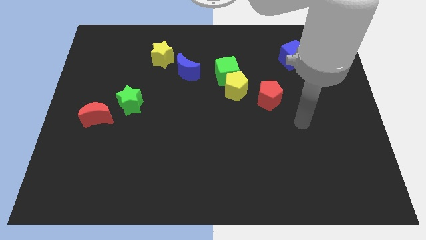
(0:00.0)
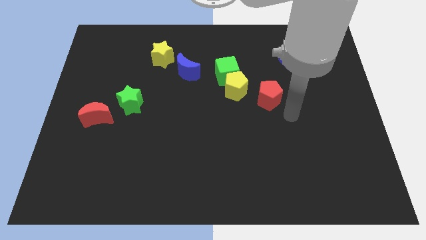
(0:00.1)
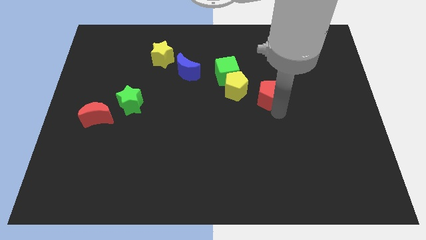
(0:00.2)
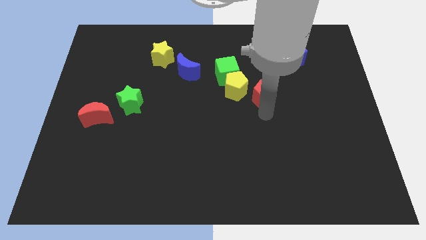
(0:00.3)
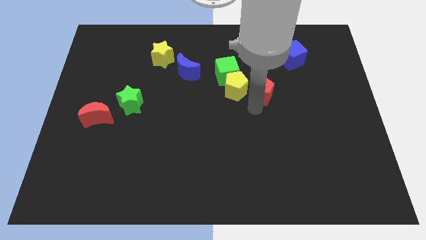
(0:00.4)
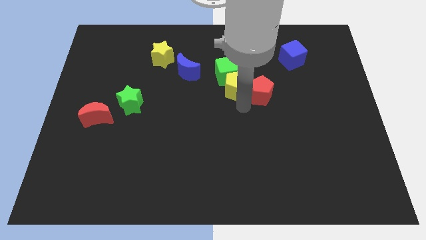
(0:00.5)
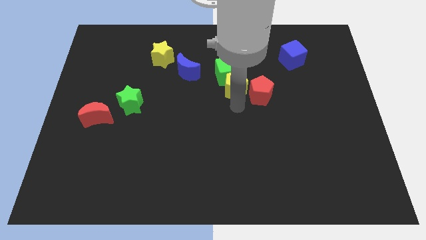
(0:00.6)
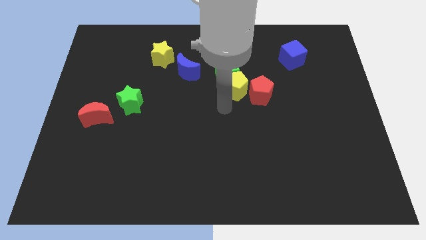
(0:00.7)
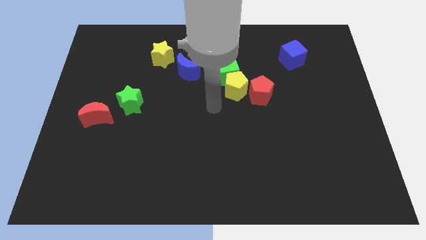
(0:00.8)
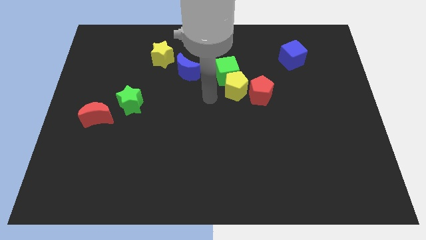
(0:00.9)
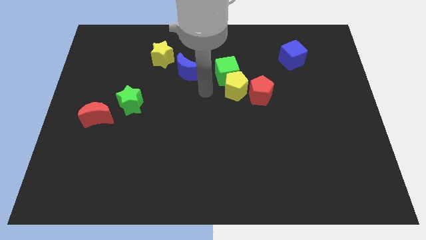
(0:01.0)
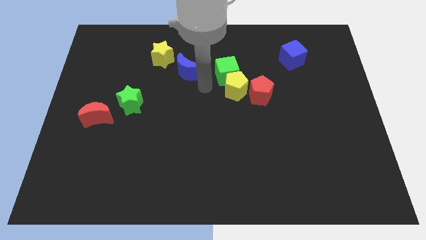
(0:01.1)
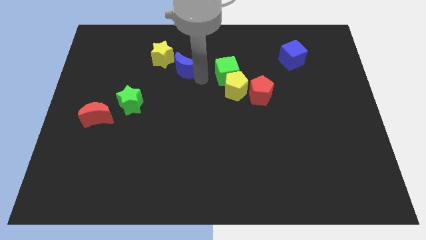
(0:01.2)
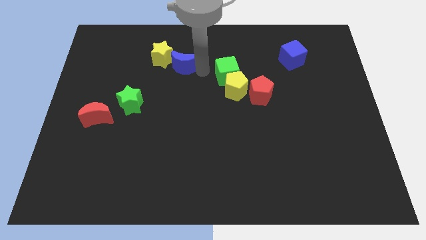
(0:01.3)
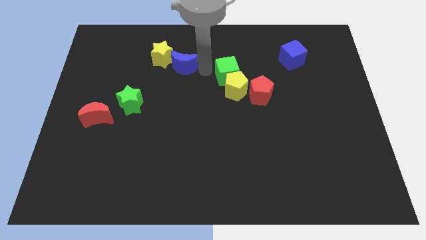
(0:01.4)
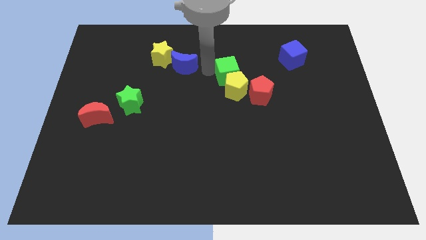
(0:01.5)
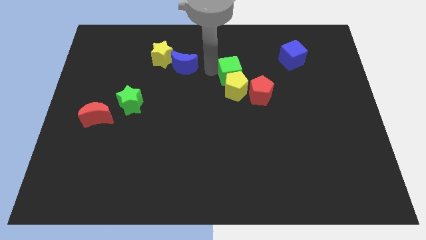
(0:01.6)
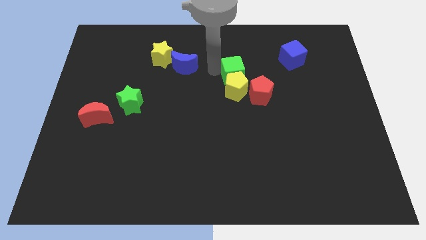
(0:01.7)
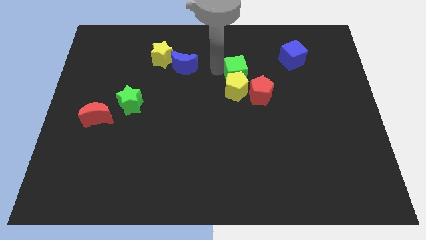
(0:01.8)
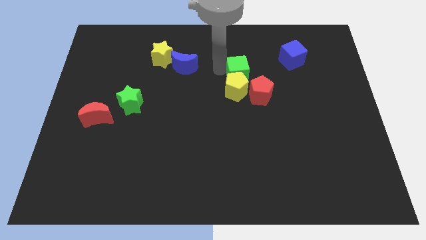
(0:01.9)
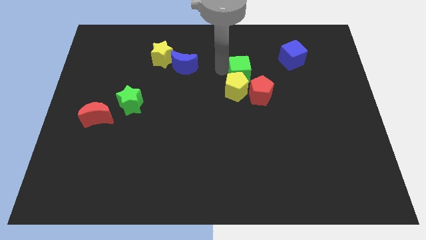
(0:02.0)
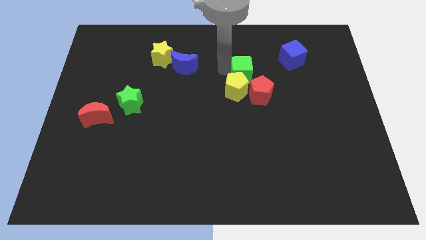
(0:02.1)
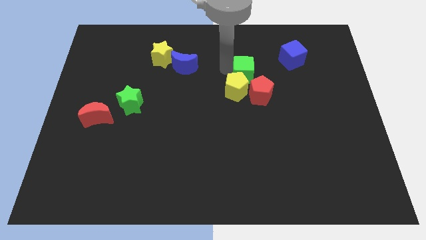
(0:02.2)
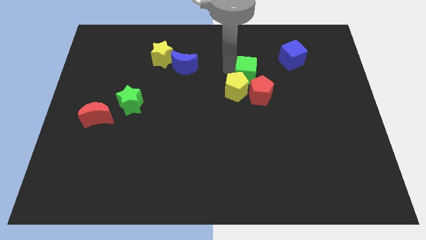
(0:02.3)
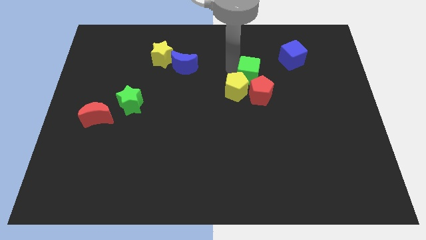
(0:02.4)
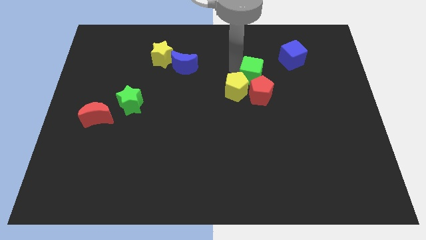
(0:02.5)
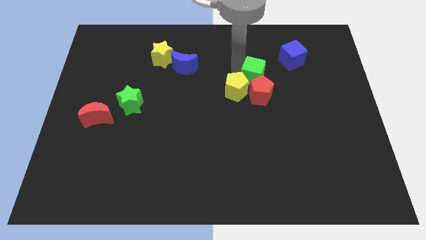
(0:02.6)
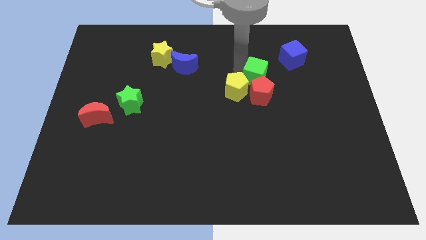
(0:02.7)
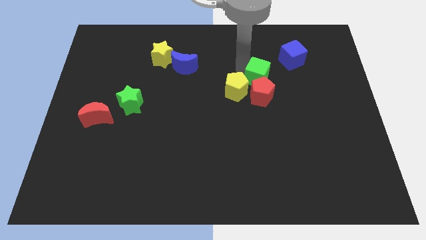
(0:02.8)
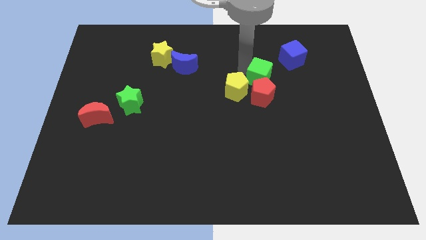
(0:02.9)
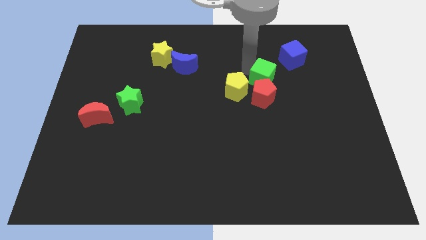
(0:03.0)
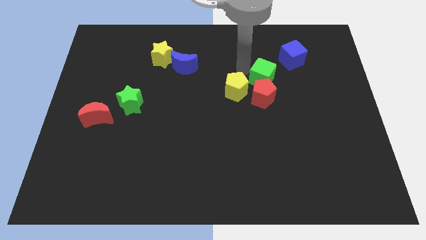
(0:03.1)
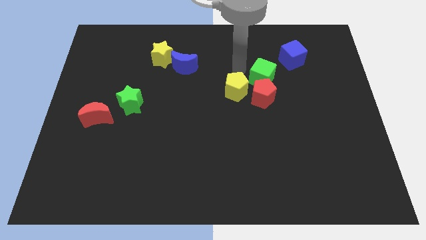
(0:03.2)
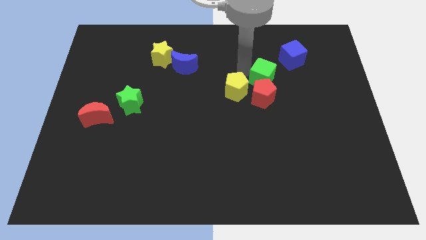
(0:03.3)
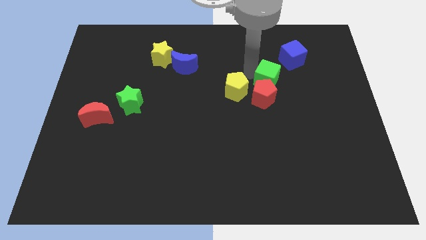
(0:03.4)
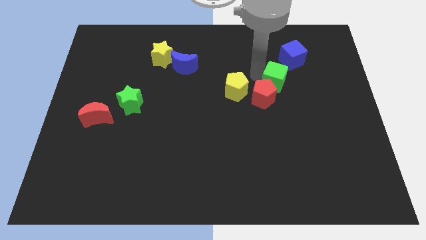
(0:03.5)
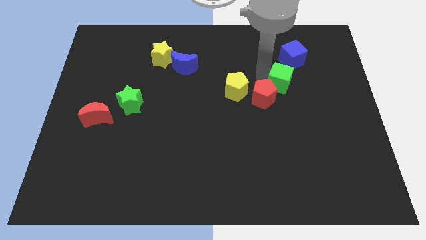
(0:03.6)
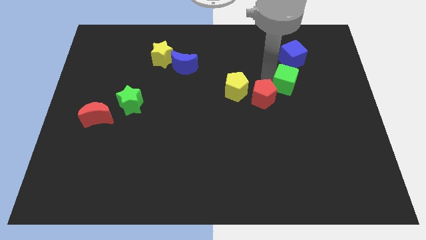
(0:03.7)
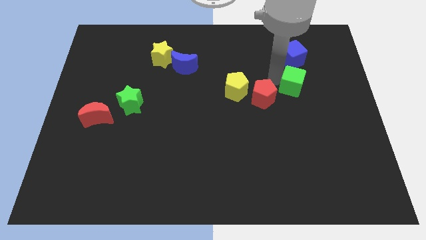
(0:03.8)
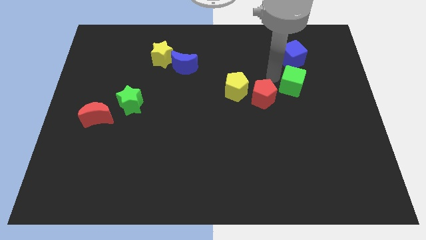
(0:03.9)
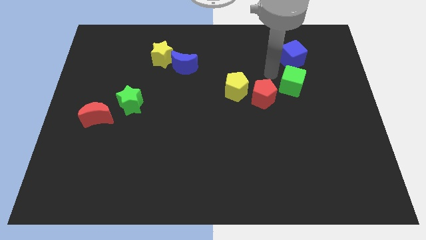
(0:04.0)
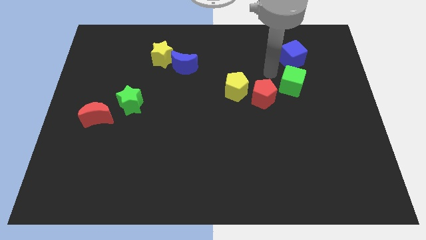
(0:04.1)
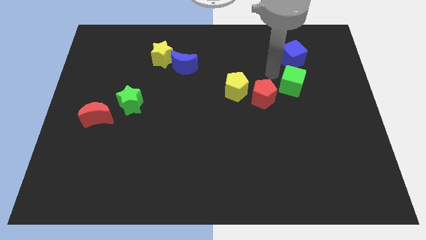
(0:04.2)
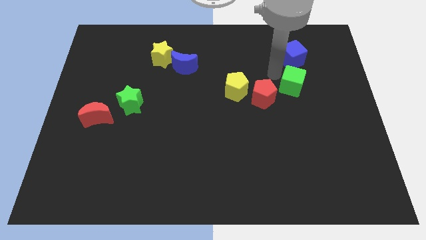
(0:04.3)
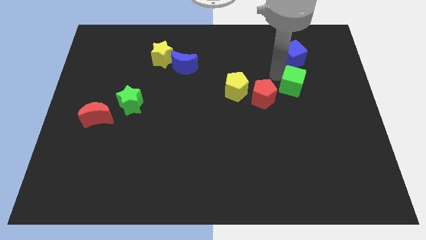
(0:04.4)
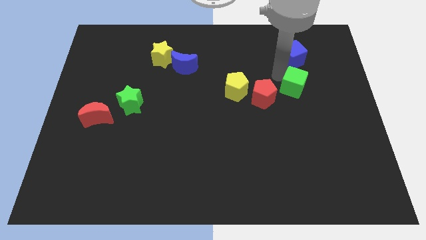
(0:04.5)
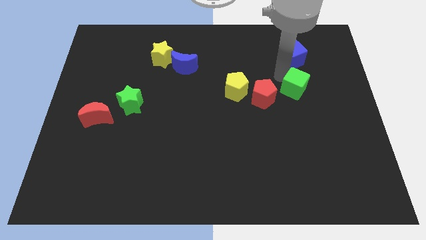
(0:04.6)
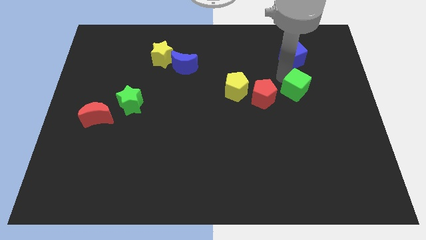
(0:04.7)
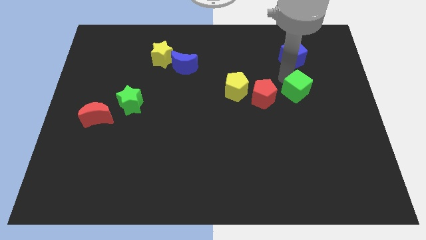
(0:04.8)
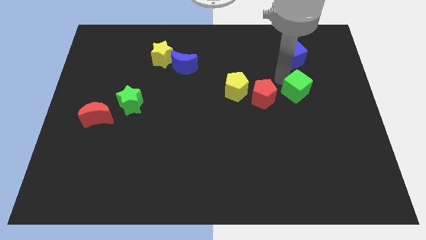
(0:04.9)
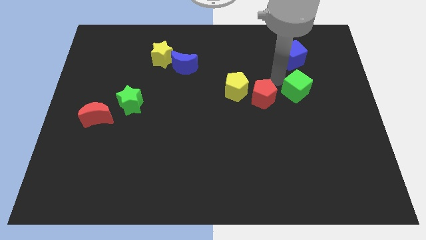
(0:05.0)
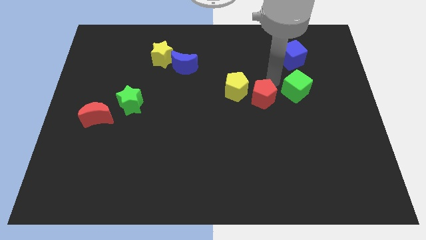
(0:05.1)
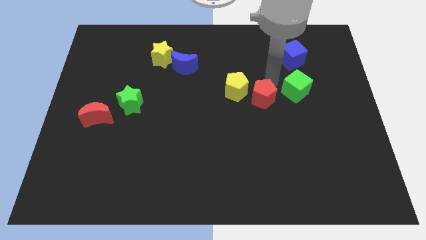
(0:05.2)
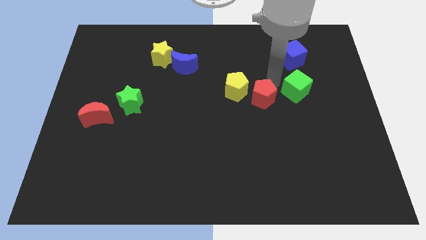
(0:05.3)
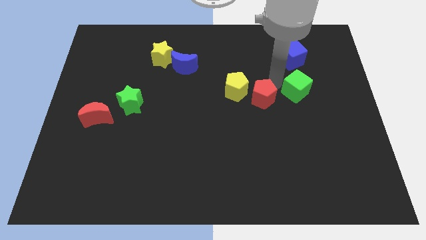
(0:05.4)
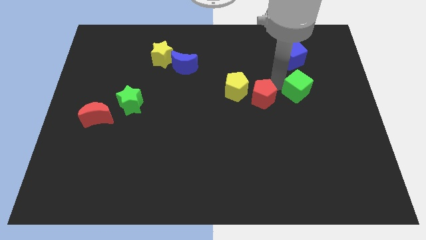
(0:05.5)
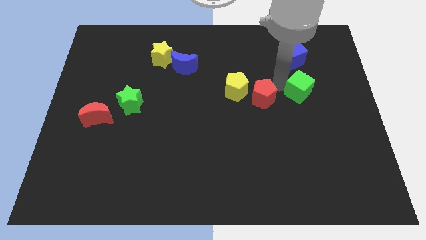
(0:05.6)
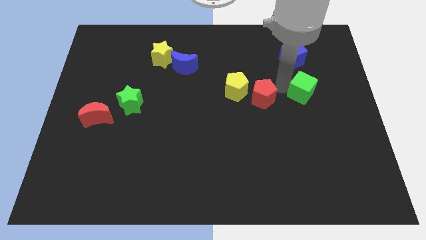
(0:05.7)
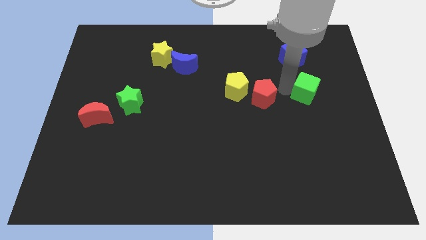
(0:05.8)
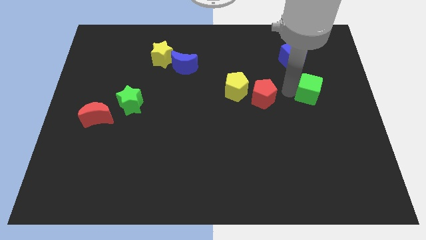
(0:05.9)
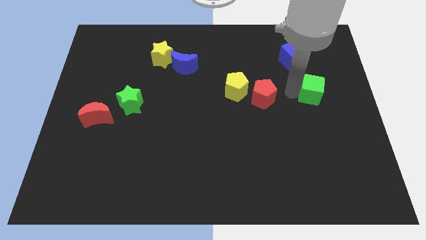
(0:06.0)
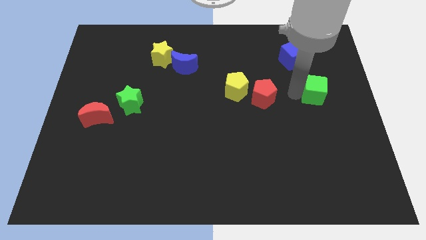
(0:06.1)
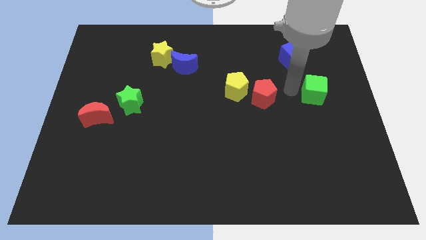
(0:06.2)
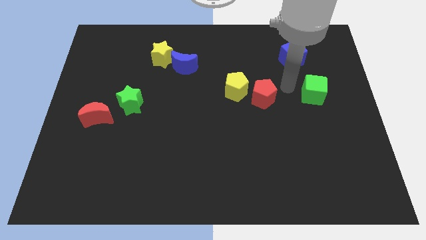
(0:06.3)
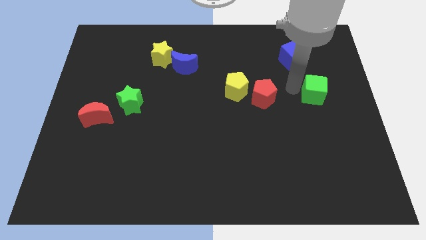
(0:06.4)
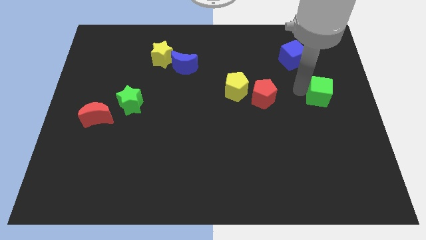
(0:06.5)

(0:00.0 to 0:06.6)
move the green cube to the right side of the board
